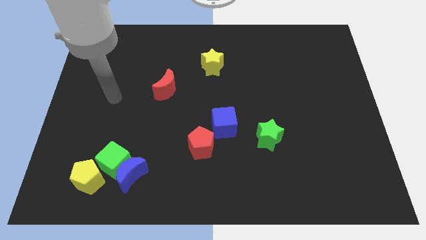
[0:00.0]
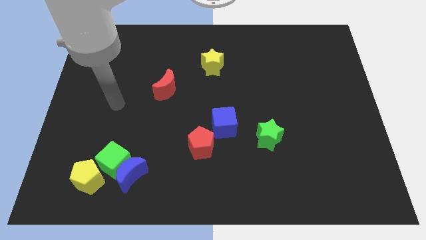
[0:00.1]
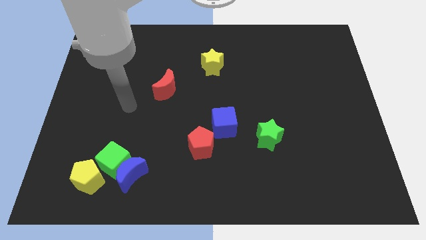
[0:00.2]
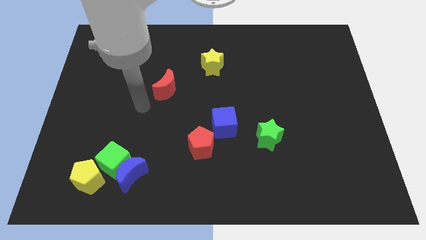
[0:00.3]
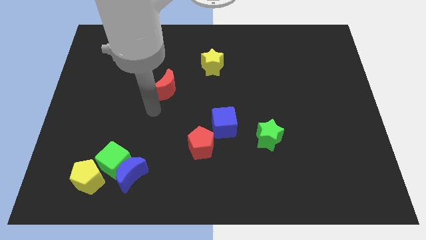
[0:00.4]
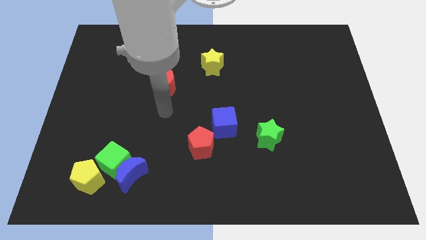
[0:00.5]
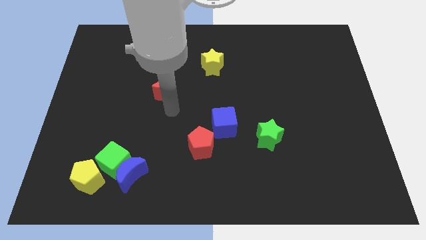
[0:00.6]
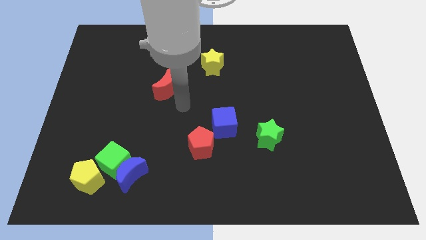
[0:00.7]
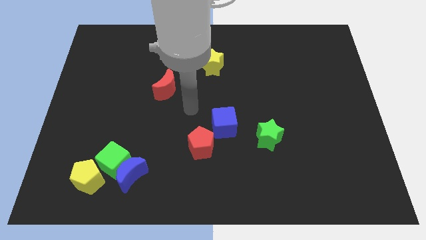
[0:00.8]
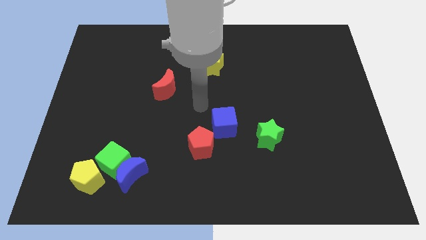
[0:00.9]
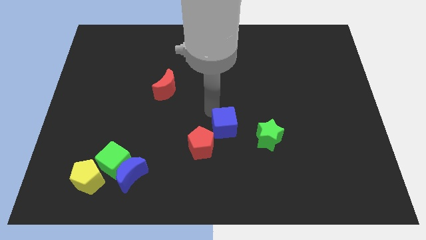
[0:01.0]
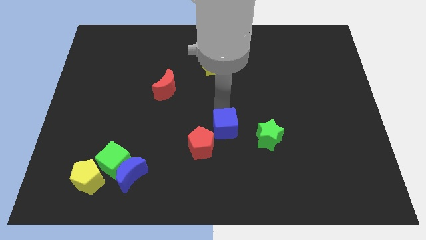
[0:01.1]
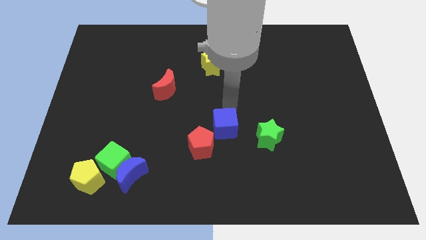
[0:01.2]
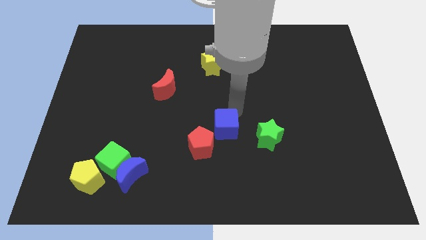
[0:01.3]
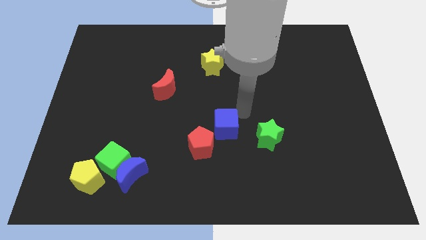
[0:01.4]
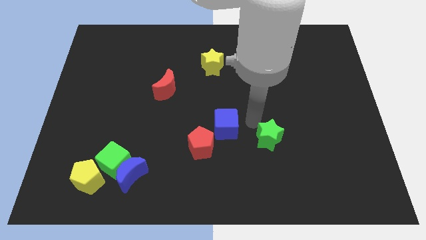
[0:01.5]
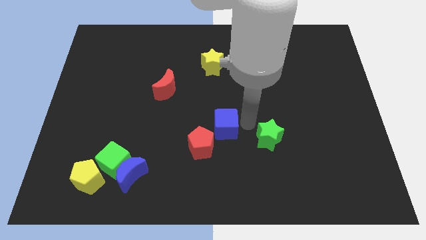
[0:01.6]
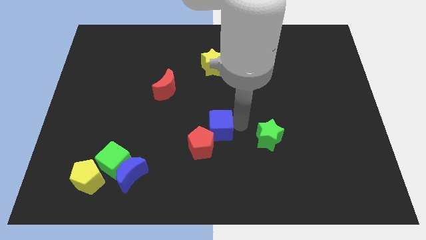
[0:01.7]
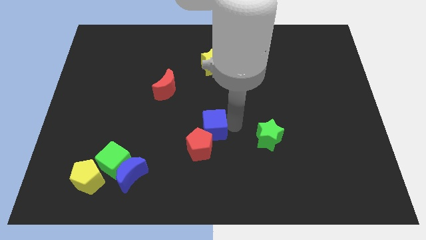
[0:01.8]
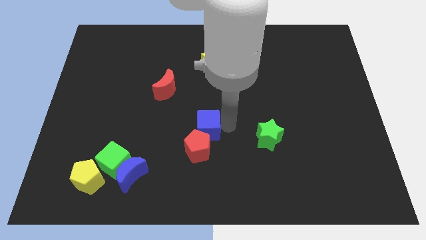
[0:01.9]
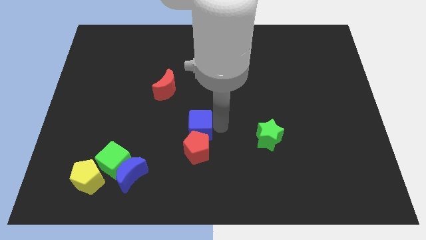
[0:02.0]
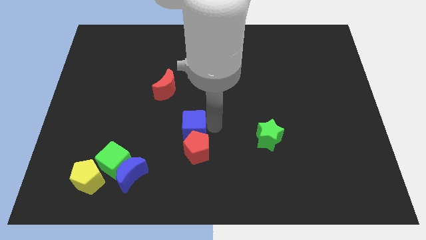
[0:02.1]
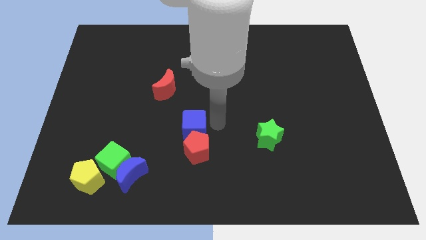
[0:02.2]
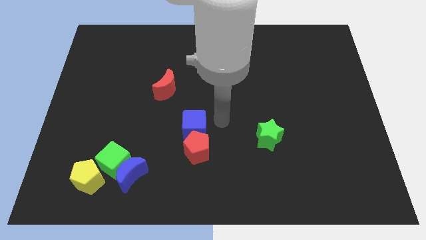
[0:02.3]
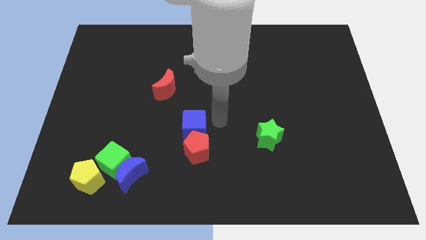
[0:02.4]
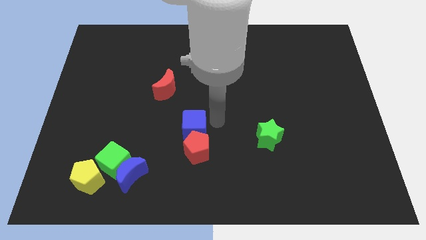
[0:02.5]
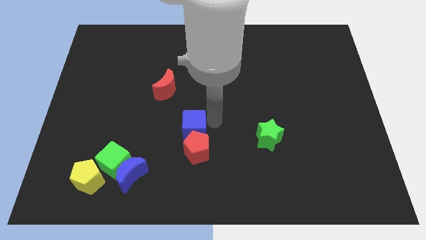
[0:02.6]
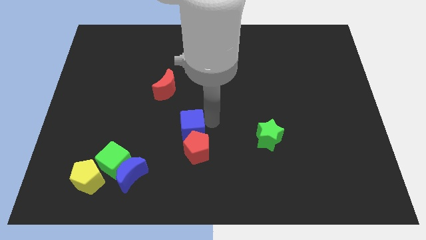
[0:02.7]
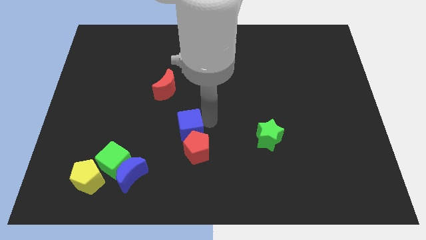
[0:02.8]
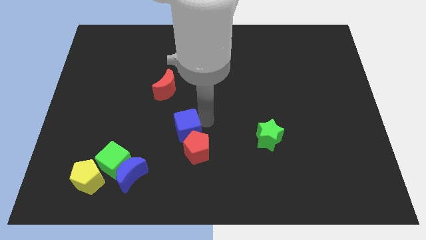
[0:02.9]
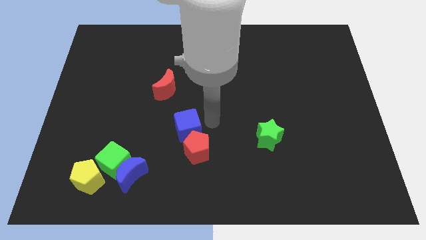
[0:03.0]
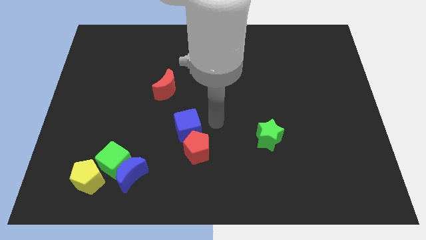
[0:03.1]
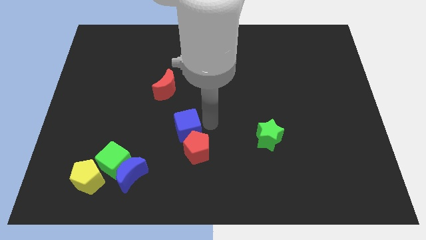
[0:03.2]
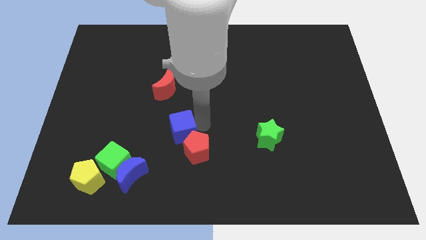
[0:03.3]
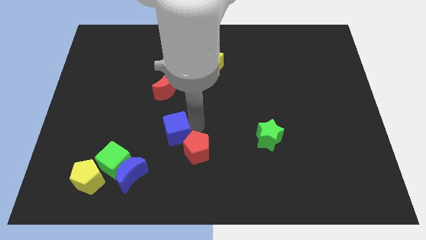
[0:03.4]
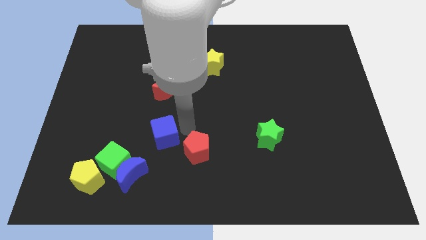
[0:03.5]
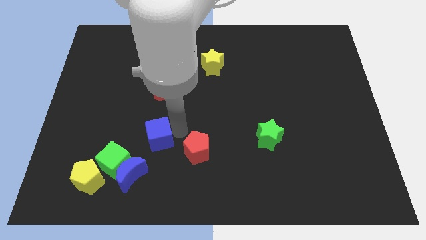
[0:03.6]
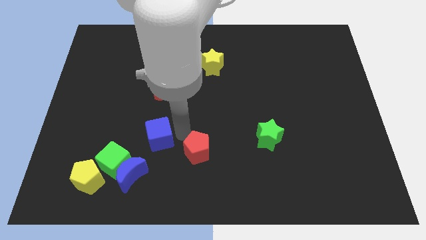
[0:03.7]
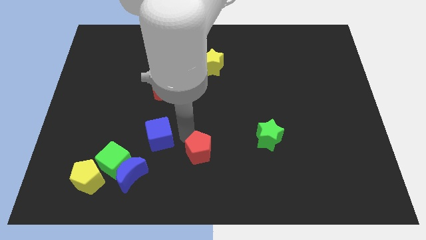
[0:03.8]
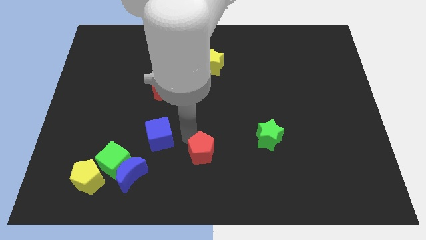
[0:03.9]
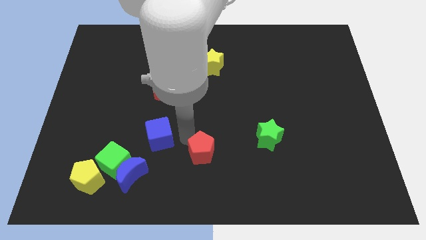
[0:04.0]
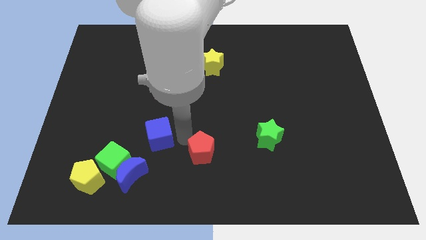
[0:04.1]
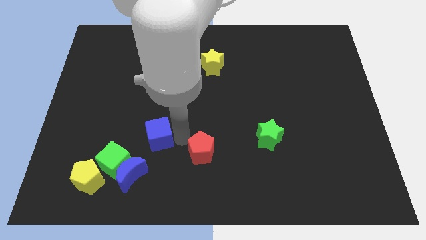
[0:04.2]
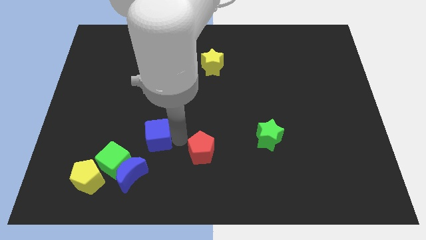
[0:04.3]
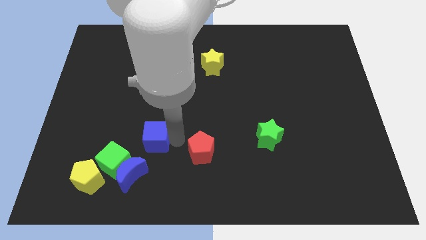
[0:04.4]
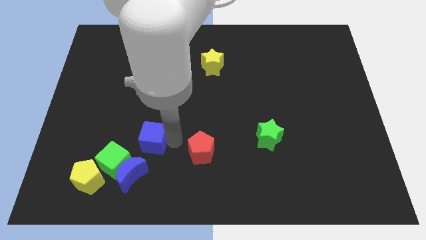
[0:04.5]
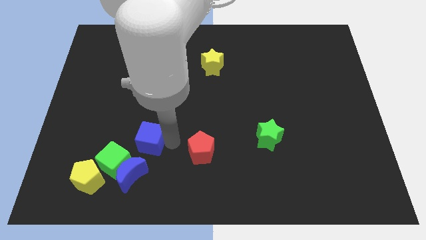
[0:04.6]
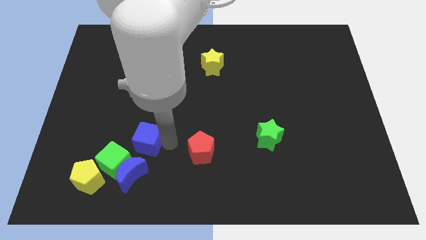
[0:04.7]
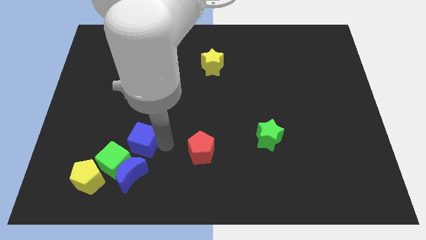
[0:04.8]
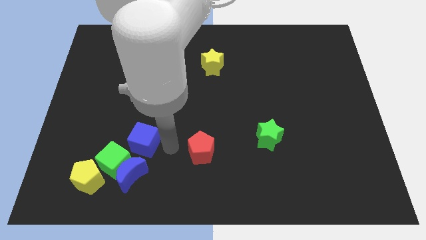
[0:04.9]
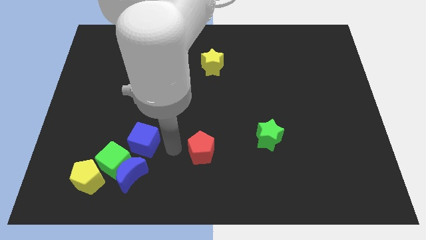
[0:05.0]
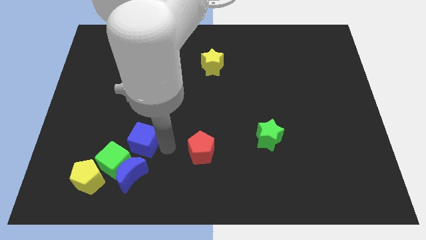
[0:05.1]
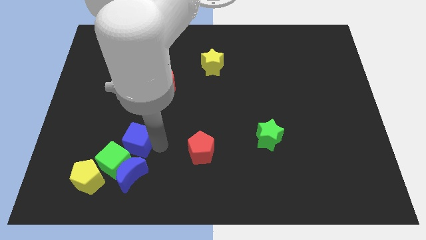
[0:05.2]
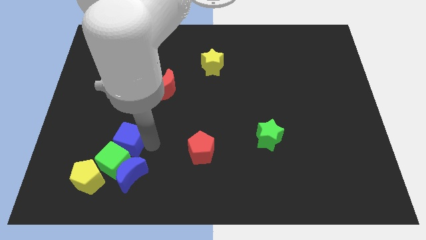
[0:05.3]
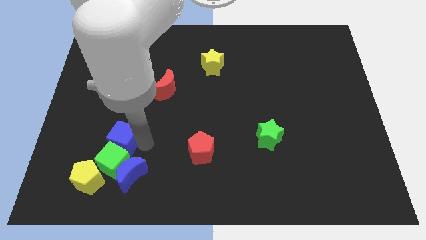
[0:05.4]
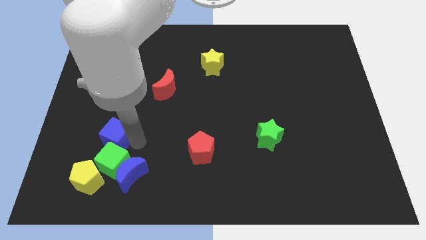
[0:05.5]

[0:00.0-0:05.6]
put the blue cube to the top of the yellow pentagon

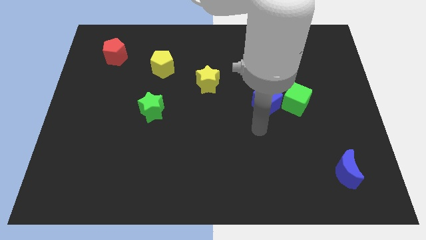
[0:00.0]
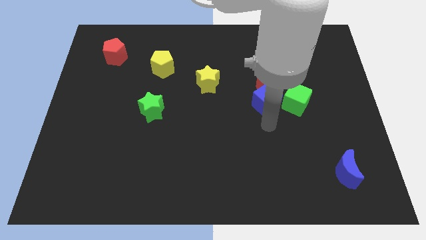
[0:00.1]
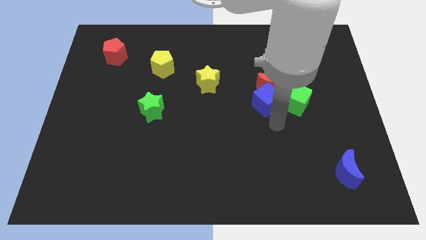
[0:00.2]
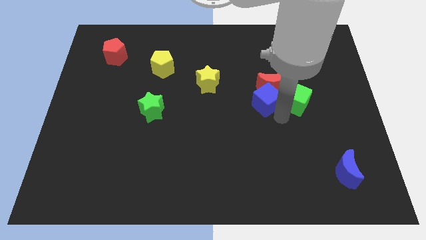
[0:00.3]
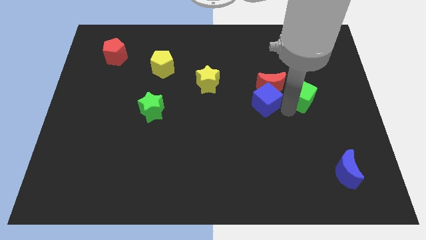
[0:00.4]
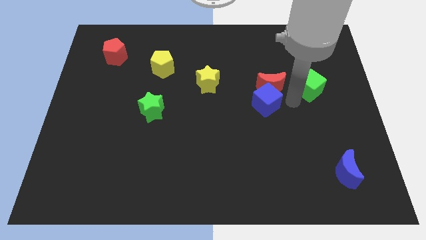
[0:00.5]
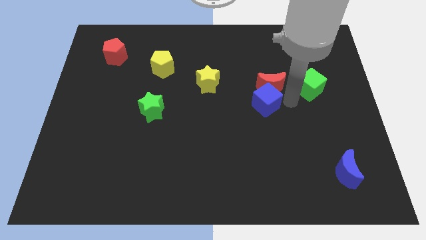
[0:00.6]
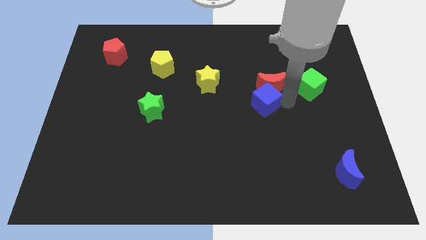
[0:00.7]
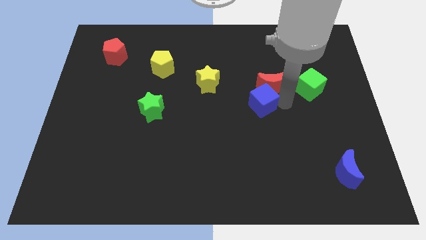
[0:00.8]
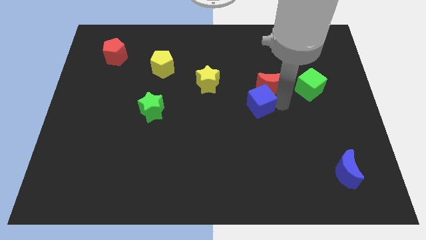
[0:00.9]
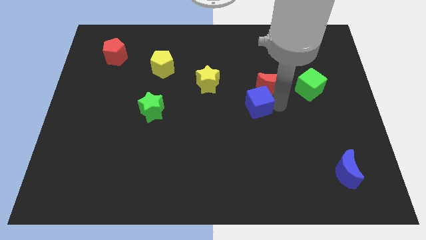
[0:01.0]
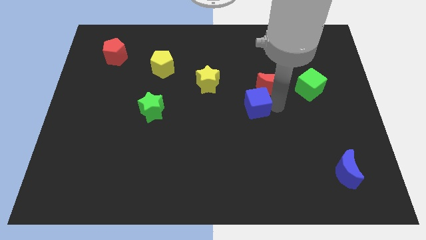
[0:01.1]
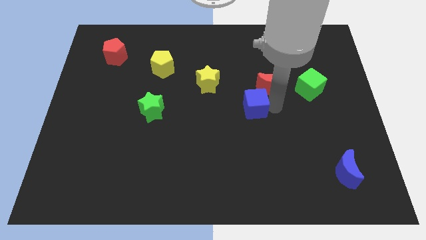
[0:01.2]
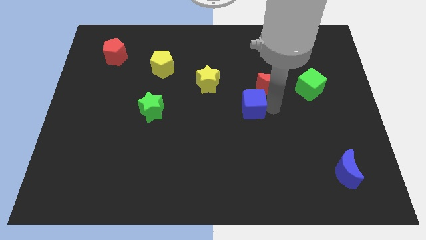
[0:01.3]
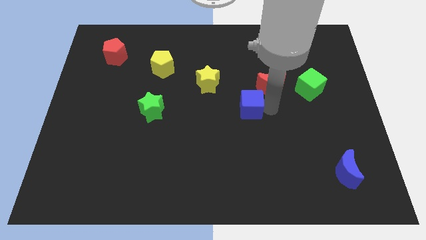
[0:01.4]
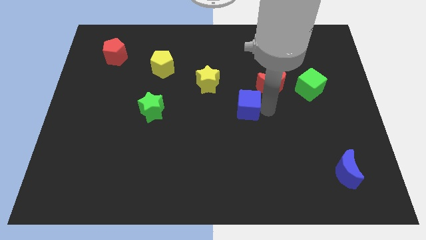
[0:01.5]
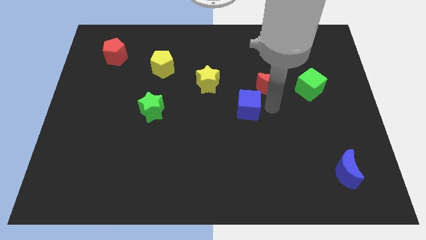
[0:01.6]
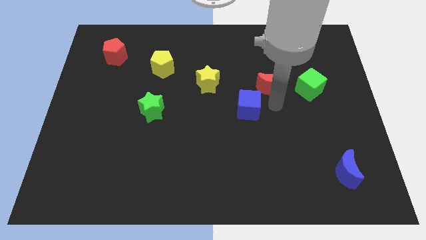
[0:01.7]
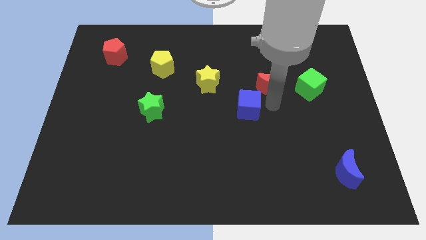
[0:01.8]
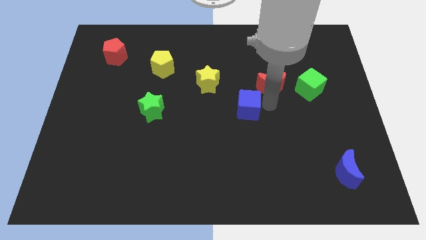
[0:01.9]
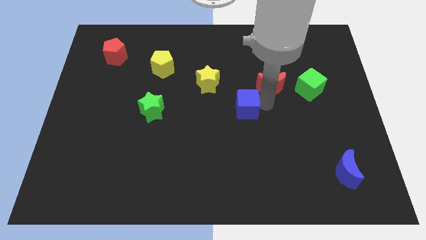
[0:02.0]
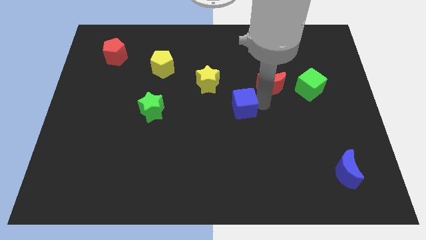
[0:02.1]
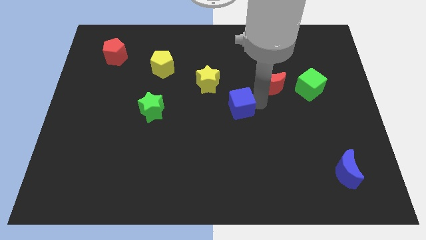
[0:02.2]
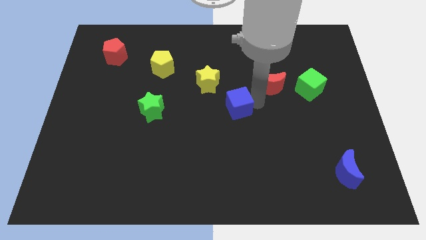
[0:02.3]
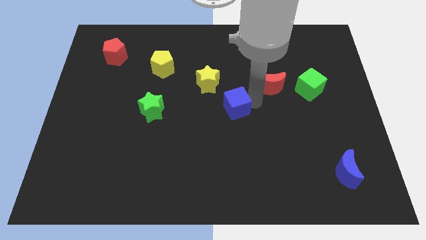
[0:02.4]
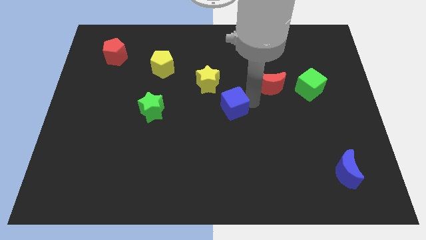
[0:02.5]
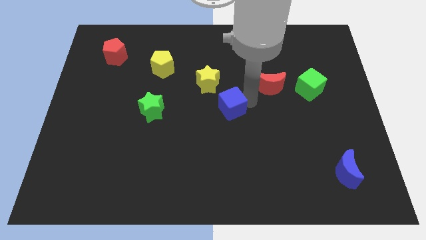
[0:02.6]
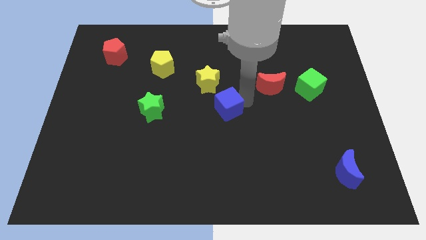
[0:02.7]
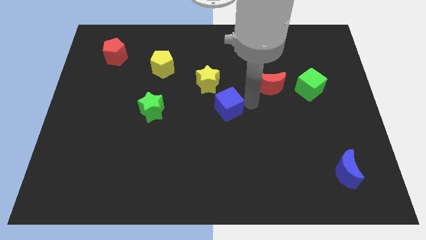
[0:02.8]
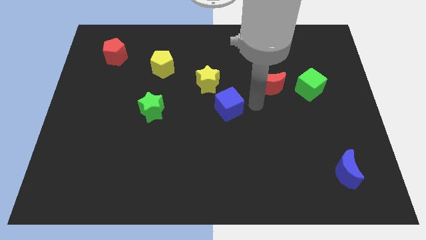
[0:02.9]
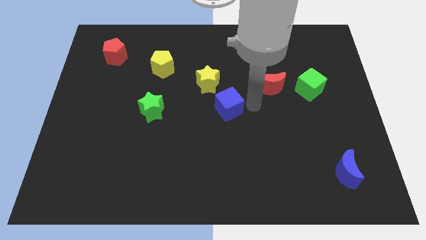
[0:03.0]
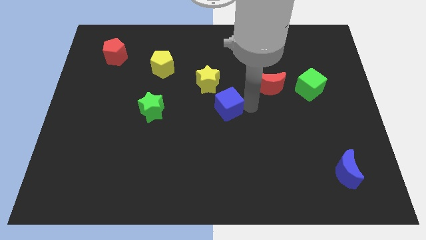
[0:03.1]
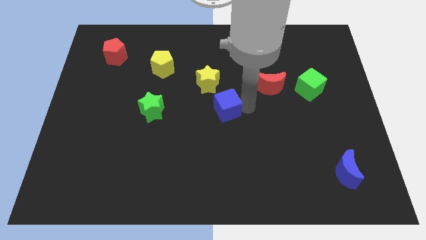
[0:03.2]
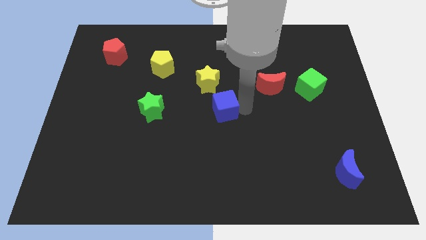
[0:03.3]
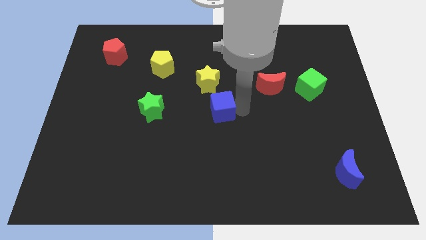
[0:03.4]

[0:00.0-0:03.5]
slide the blue cube to the right of the green star
